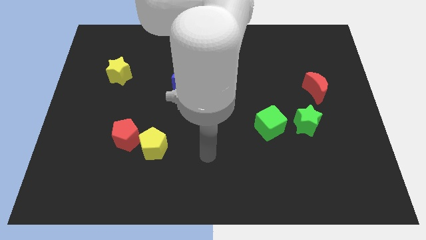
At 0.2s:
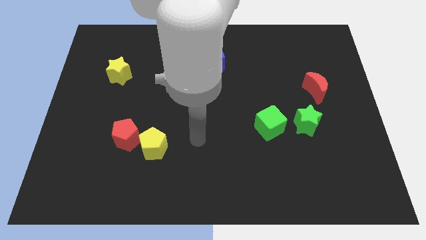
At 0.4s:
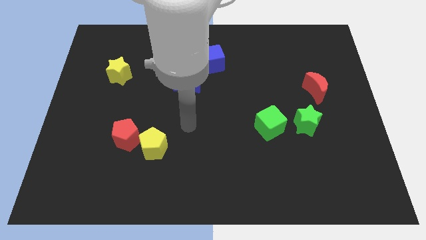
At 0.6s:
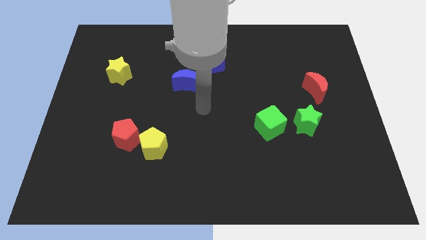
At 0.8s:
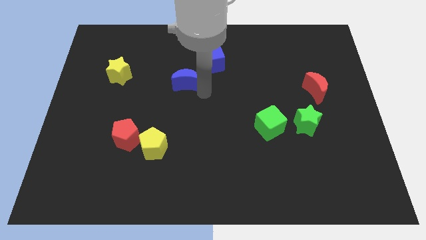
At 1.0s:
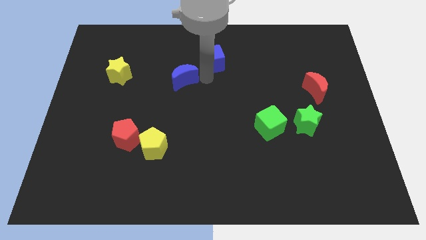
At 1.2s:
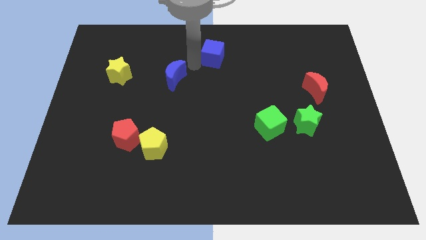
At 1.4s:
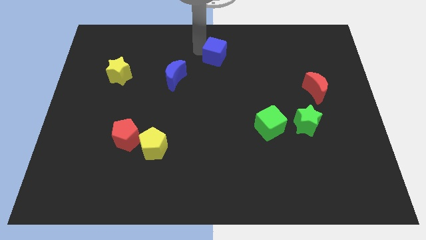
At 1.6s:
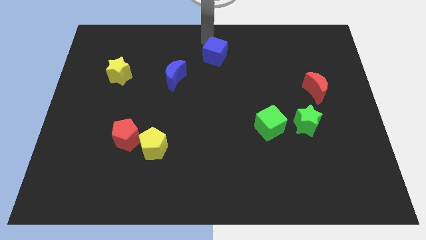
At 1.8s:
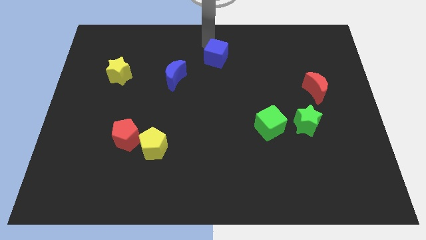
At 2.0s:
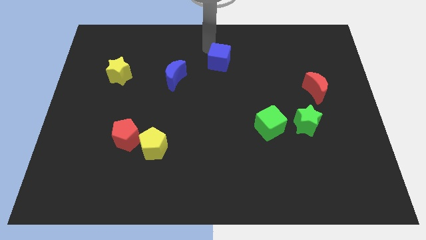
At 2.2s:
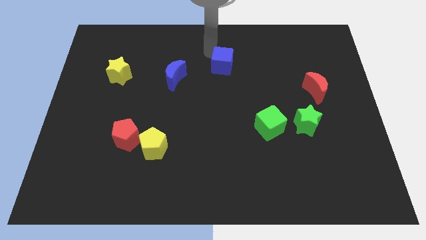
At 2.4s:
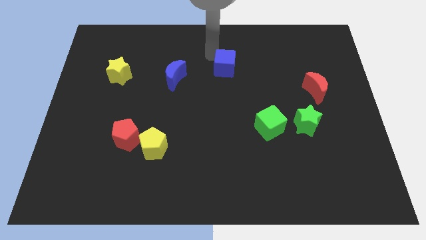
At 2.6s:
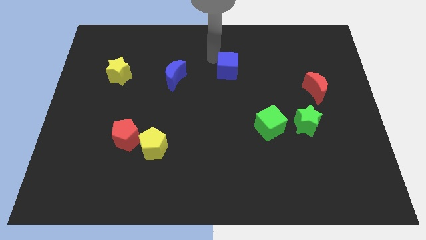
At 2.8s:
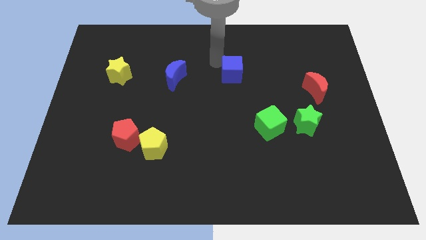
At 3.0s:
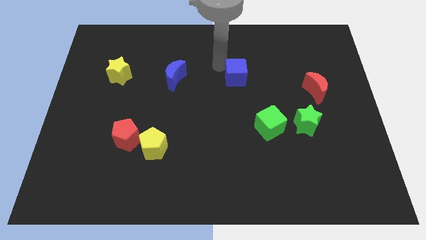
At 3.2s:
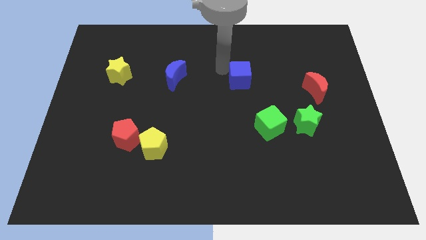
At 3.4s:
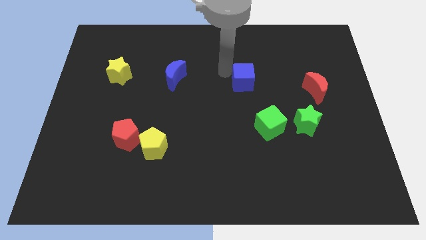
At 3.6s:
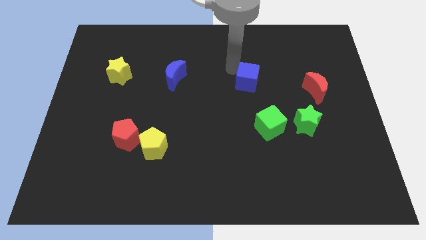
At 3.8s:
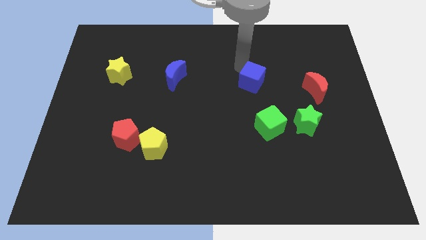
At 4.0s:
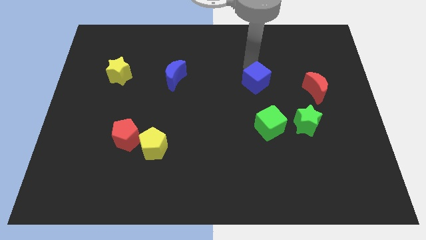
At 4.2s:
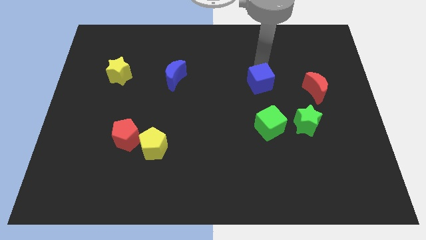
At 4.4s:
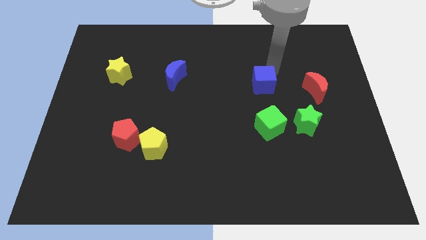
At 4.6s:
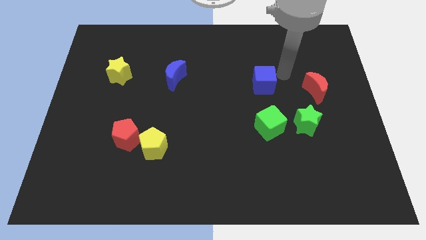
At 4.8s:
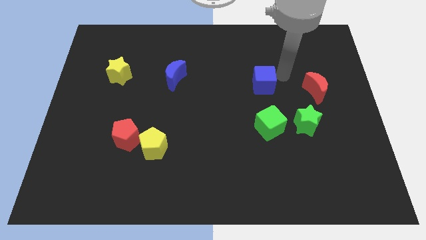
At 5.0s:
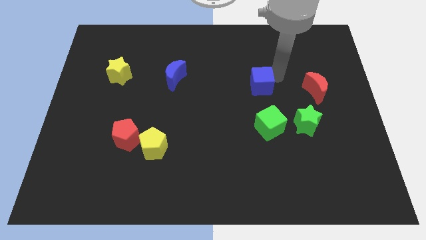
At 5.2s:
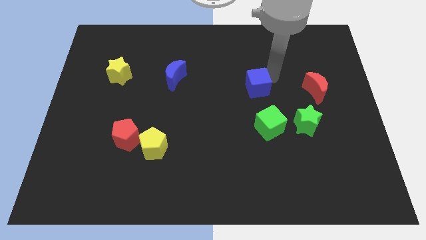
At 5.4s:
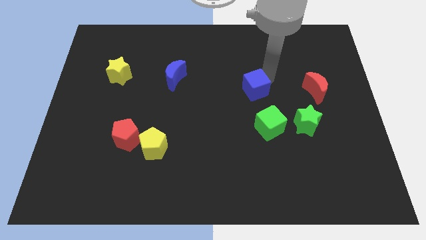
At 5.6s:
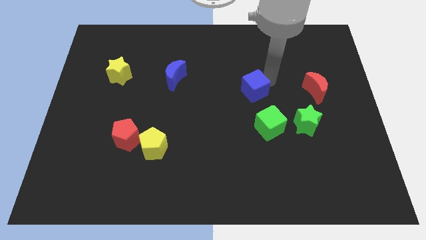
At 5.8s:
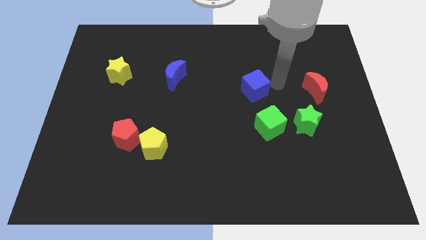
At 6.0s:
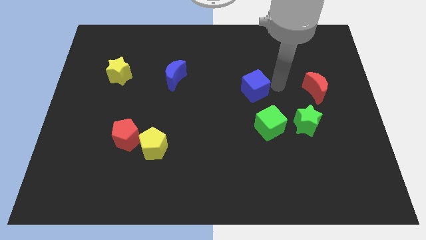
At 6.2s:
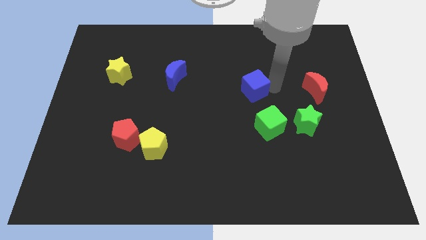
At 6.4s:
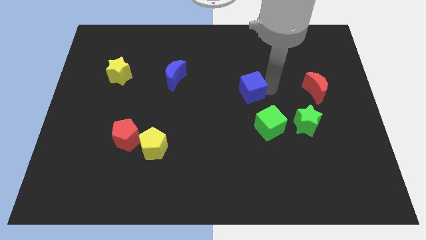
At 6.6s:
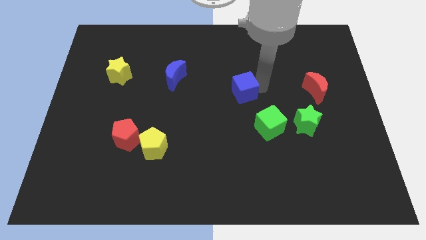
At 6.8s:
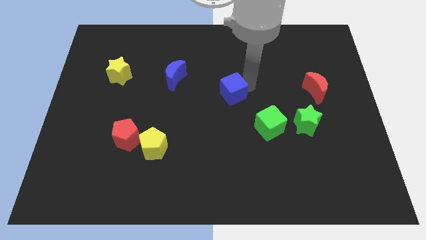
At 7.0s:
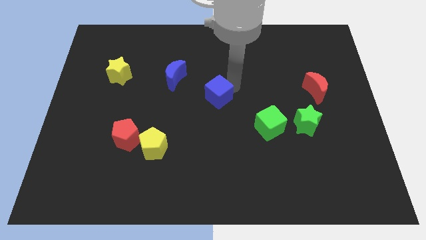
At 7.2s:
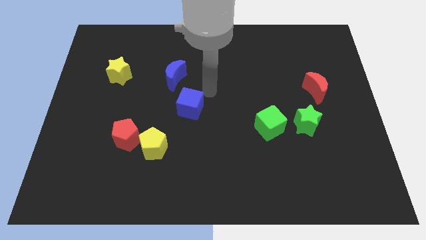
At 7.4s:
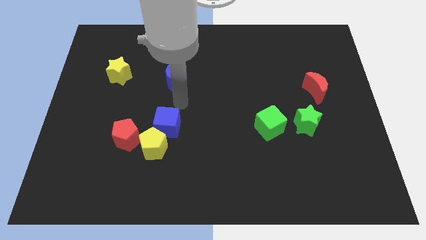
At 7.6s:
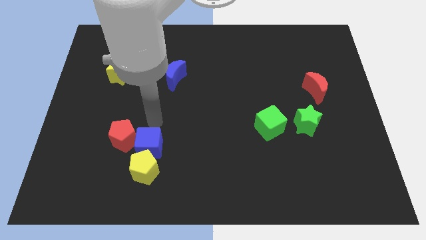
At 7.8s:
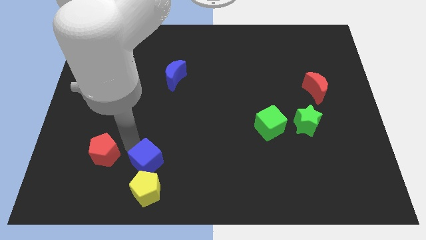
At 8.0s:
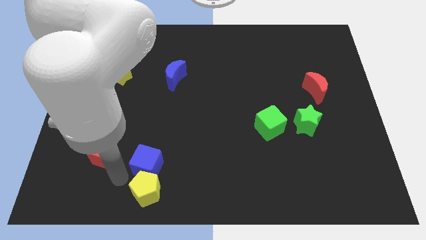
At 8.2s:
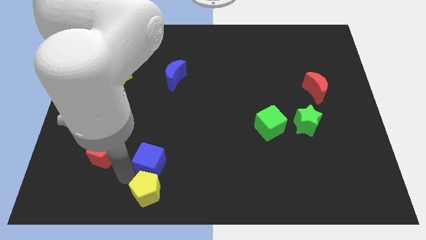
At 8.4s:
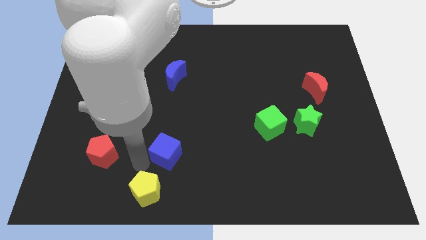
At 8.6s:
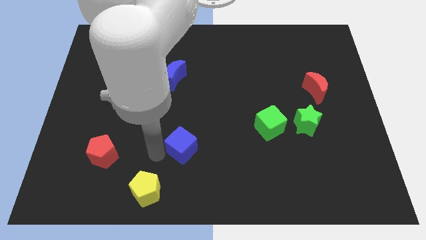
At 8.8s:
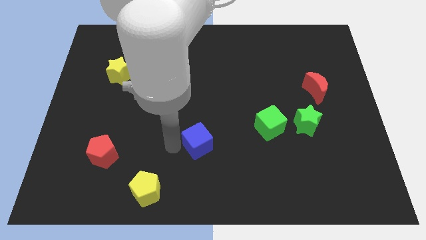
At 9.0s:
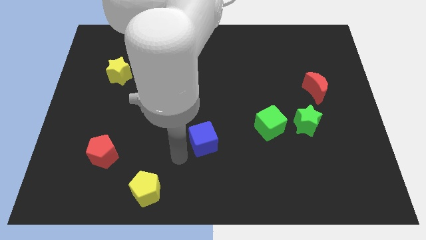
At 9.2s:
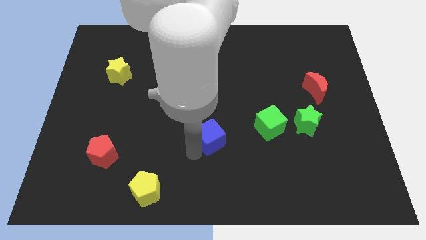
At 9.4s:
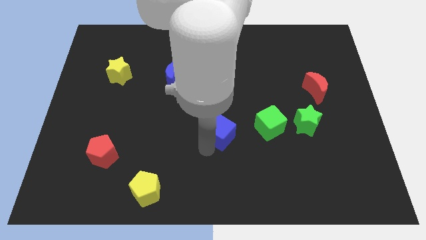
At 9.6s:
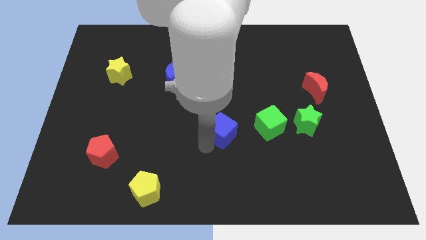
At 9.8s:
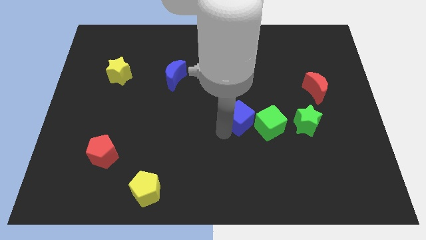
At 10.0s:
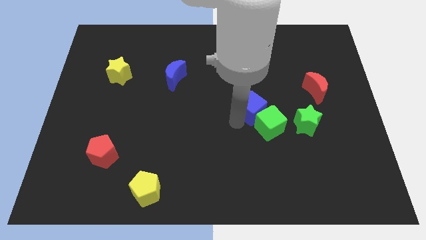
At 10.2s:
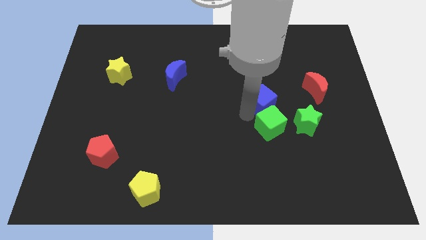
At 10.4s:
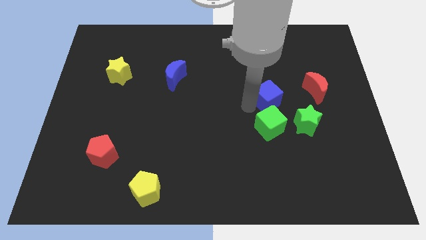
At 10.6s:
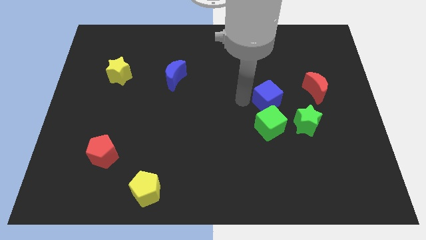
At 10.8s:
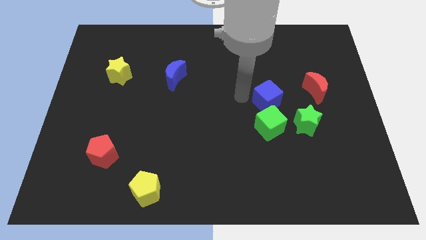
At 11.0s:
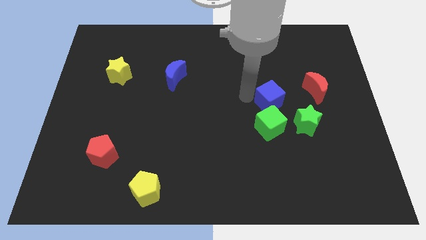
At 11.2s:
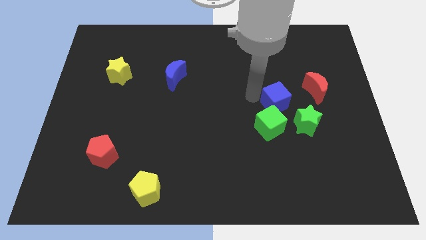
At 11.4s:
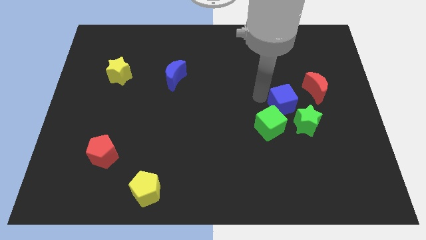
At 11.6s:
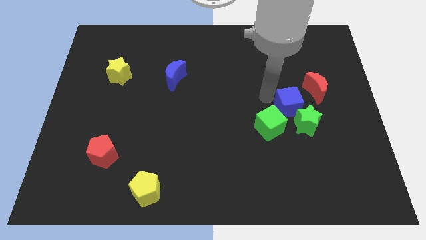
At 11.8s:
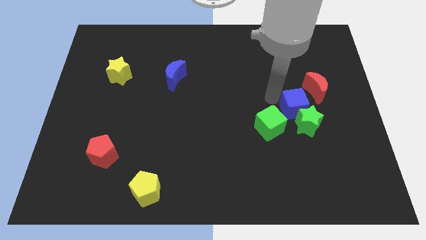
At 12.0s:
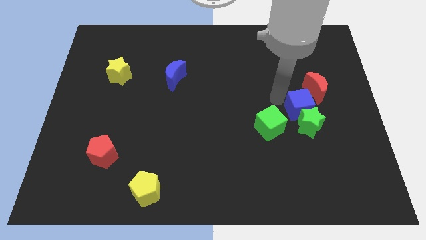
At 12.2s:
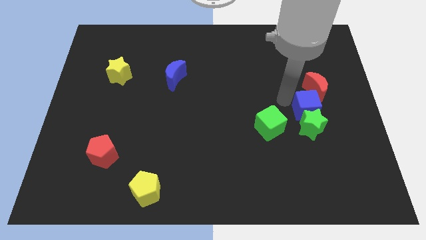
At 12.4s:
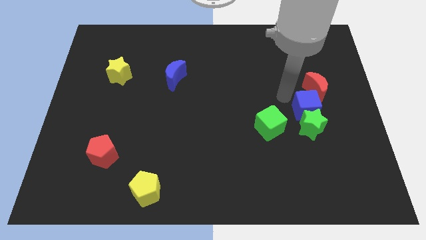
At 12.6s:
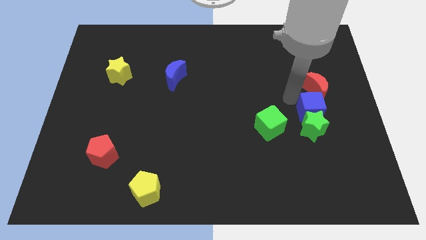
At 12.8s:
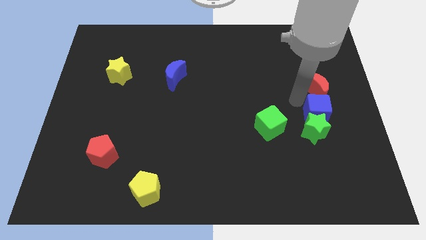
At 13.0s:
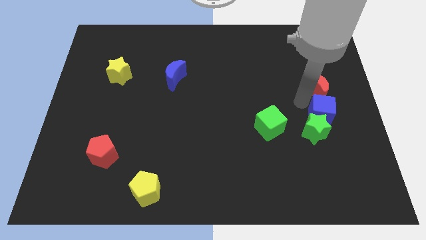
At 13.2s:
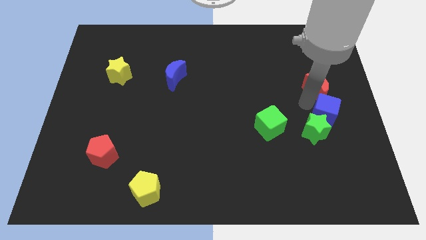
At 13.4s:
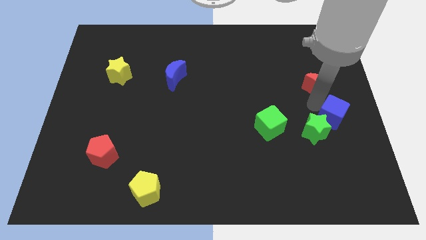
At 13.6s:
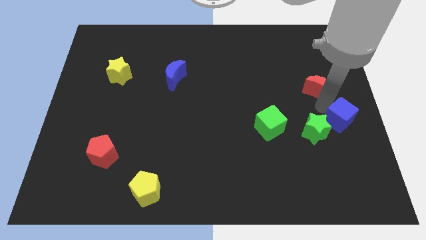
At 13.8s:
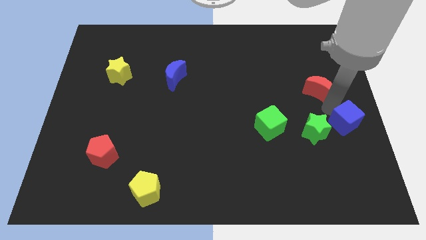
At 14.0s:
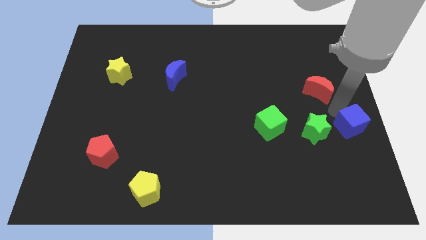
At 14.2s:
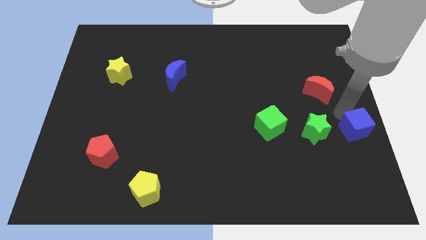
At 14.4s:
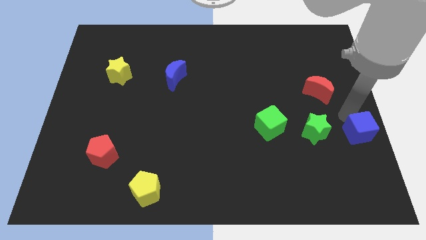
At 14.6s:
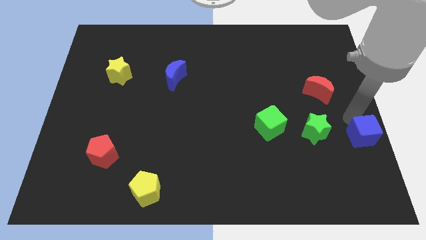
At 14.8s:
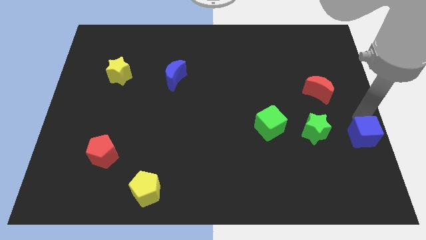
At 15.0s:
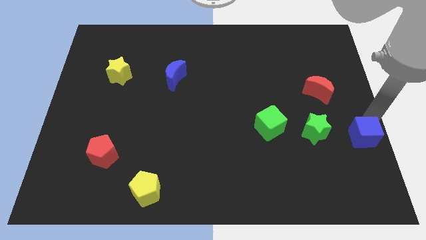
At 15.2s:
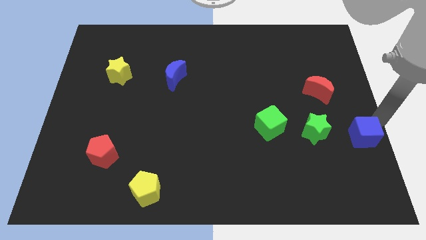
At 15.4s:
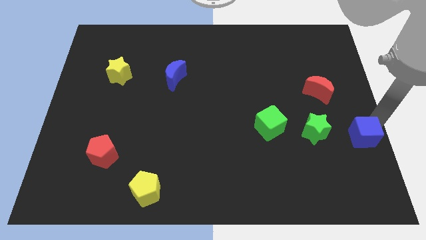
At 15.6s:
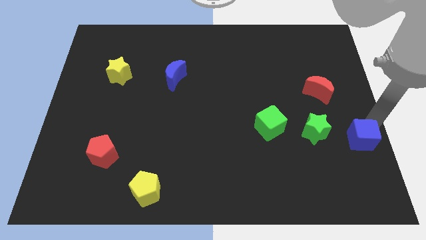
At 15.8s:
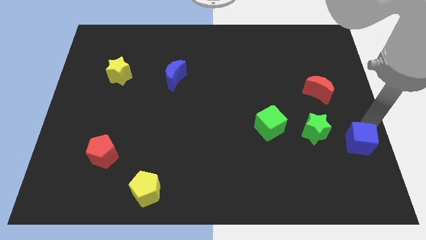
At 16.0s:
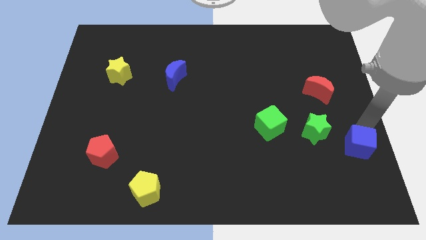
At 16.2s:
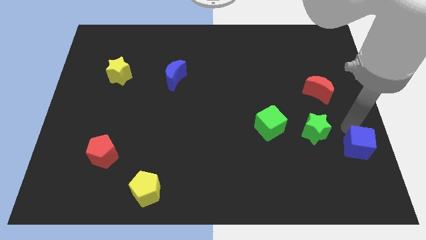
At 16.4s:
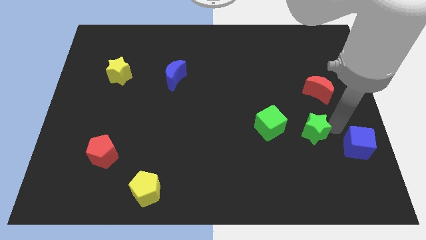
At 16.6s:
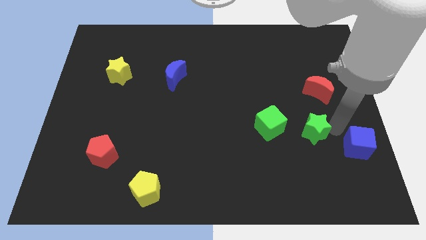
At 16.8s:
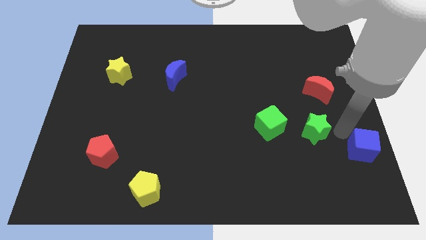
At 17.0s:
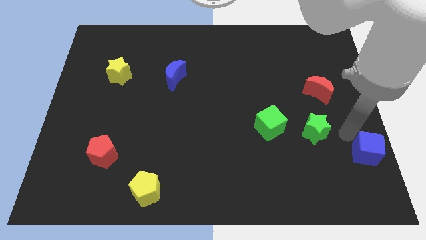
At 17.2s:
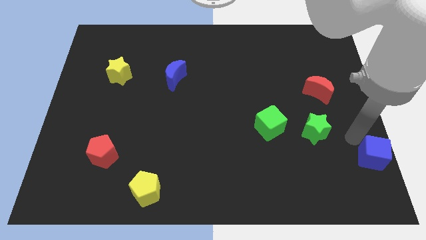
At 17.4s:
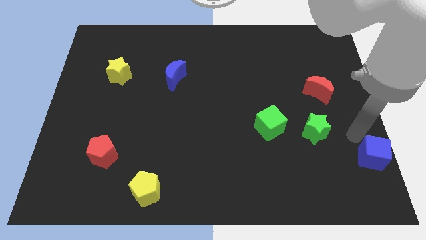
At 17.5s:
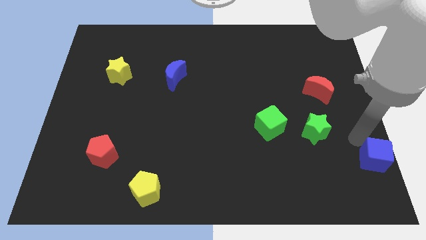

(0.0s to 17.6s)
put the blue cube to the lower right corner
